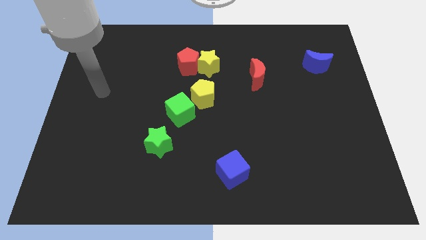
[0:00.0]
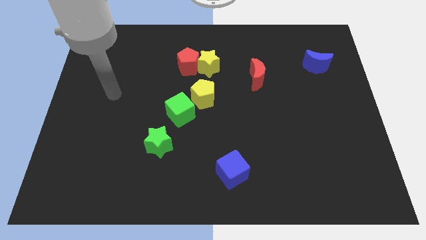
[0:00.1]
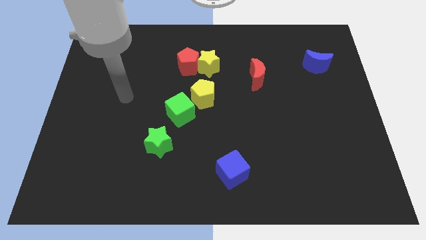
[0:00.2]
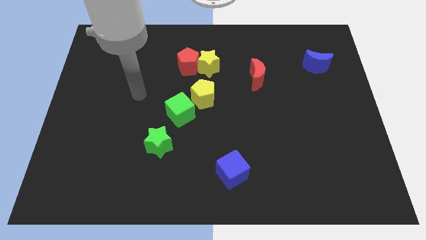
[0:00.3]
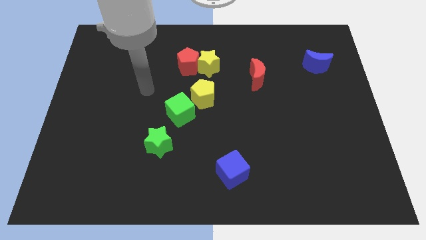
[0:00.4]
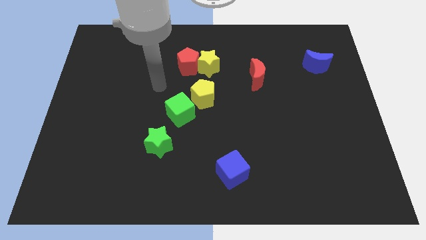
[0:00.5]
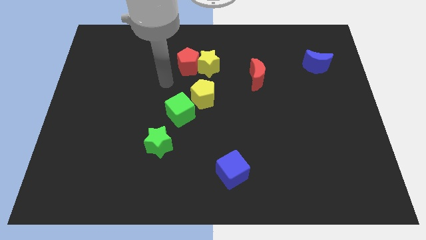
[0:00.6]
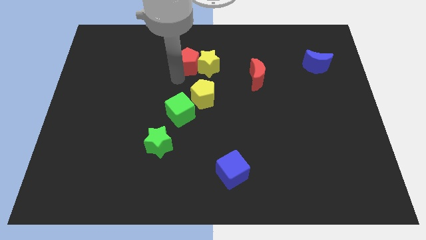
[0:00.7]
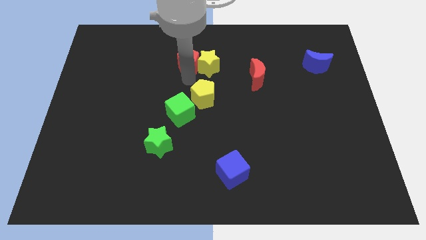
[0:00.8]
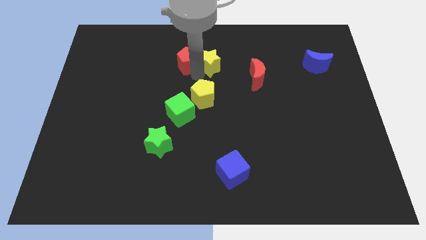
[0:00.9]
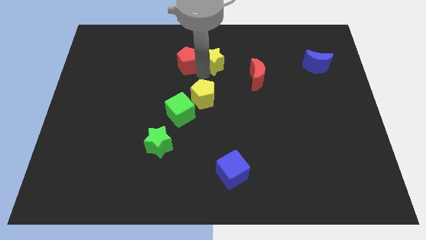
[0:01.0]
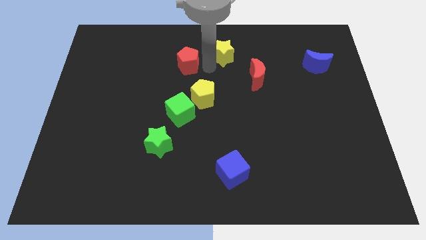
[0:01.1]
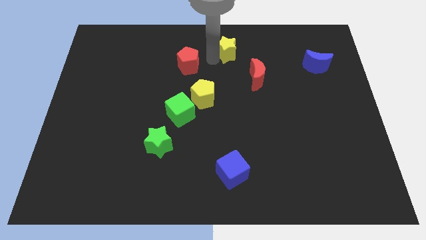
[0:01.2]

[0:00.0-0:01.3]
move the red pentagon away from the yellow star

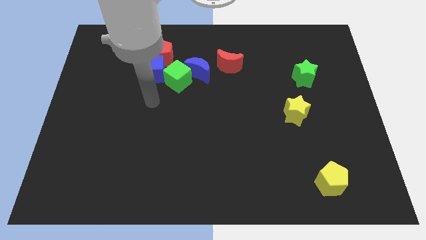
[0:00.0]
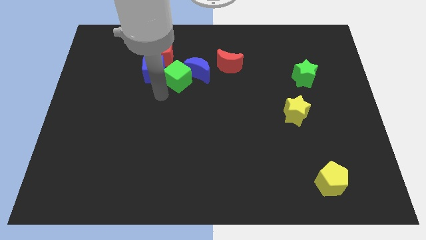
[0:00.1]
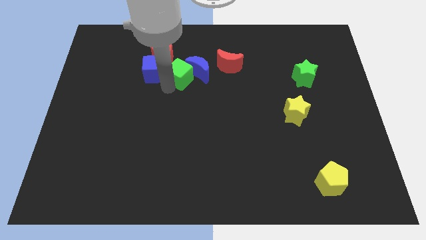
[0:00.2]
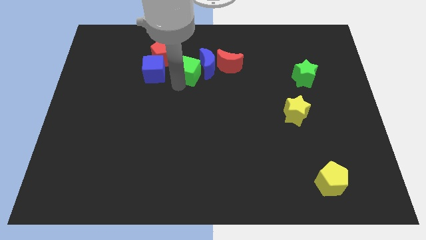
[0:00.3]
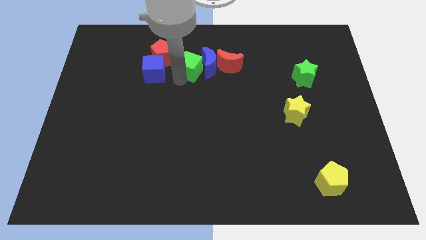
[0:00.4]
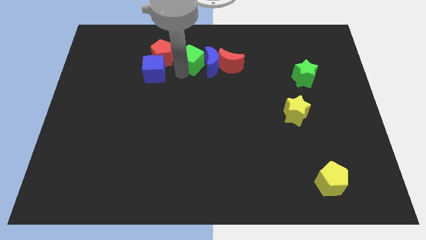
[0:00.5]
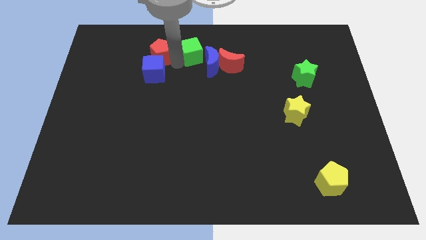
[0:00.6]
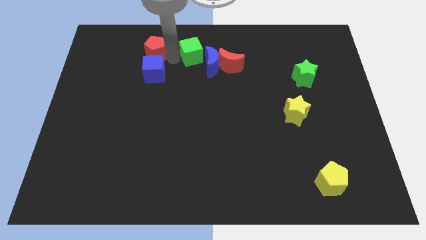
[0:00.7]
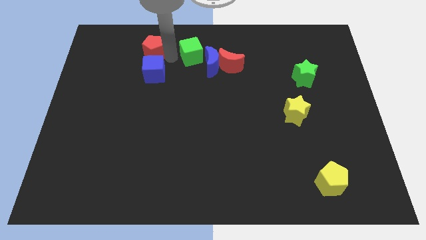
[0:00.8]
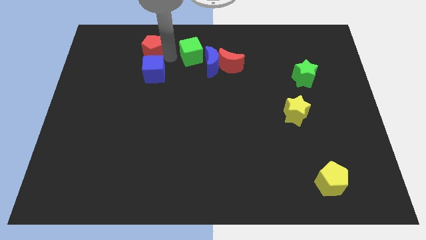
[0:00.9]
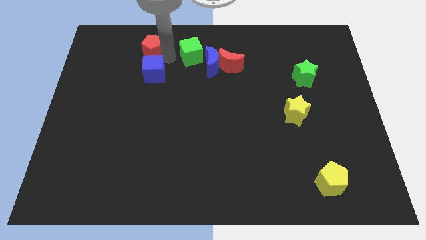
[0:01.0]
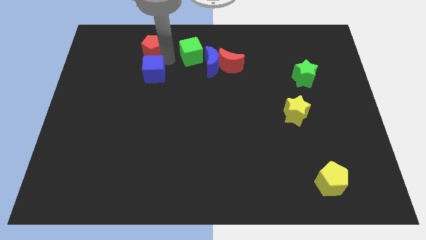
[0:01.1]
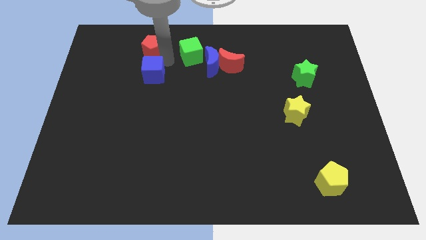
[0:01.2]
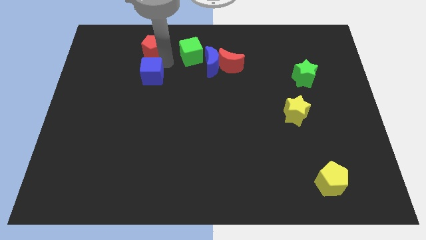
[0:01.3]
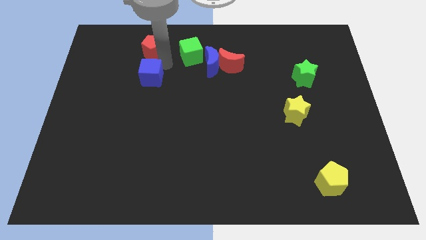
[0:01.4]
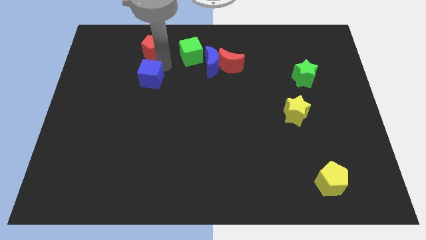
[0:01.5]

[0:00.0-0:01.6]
move the blue cube away from the red pentagon and green cube

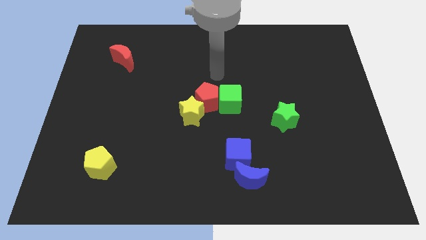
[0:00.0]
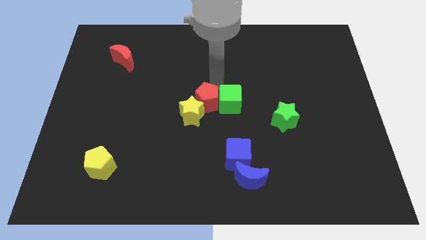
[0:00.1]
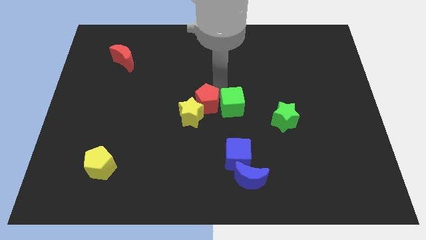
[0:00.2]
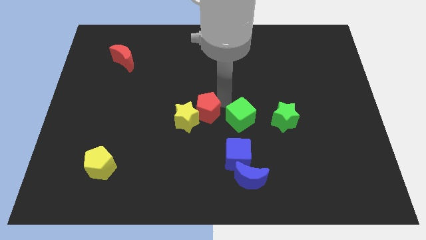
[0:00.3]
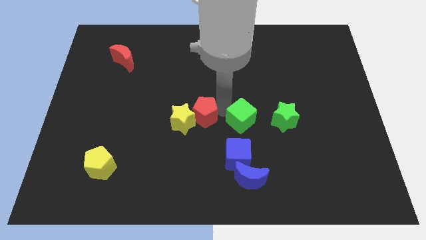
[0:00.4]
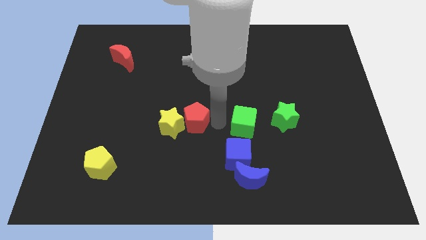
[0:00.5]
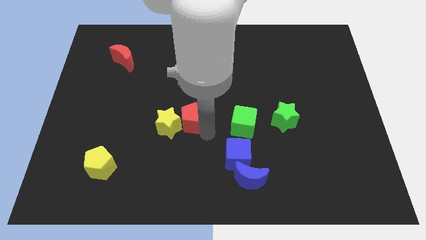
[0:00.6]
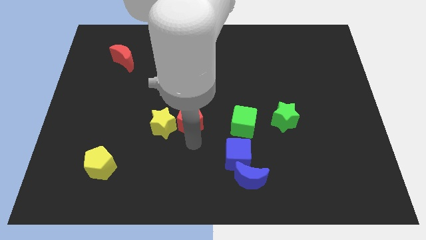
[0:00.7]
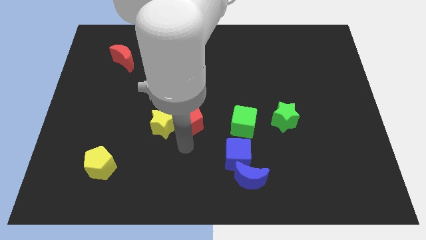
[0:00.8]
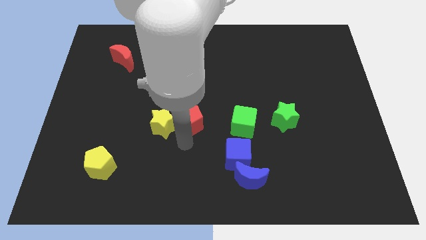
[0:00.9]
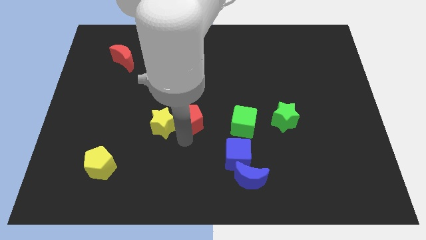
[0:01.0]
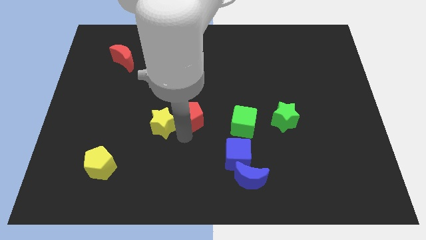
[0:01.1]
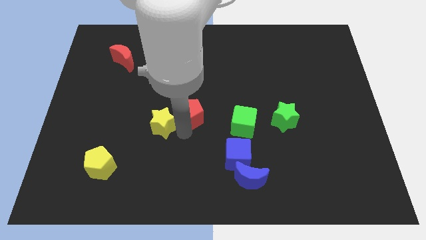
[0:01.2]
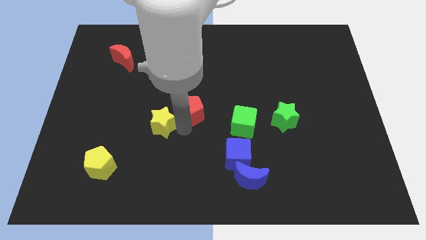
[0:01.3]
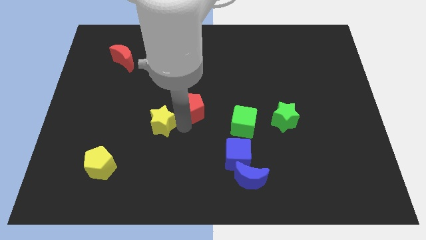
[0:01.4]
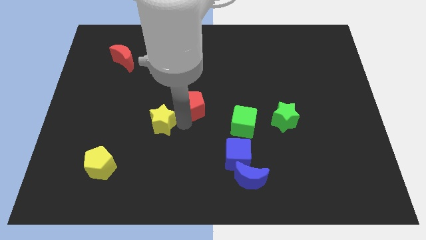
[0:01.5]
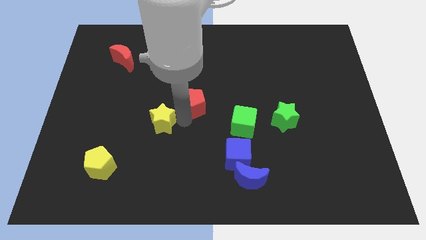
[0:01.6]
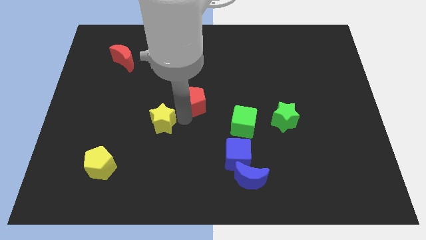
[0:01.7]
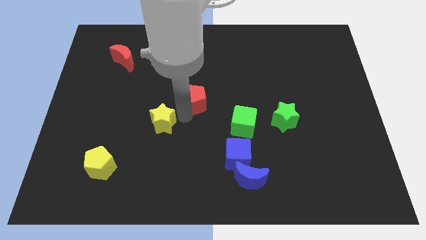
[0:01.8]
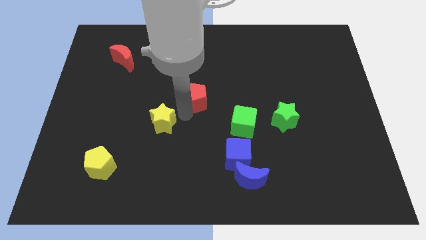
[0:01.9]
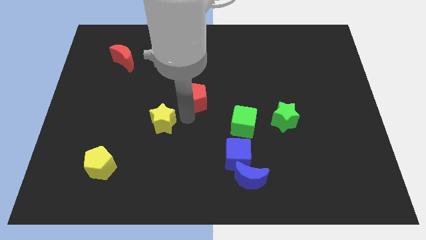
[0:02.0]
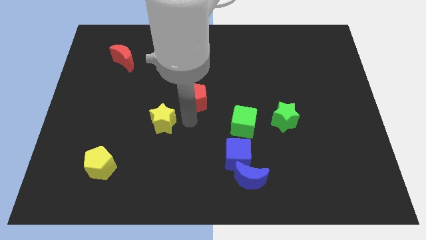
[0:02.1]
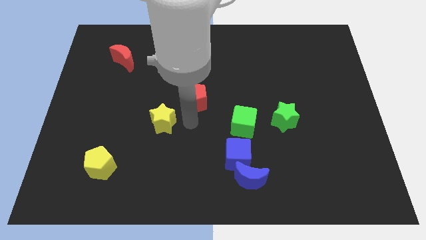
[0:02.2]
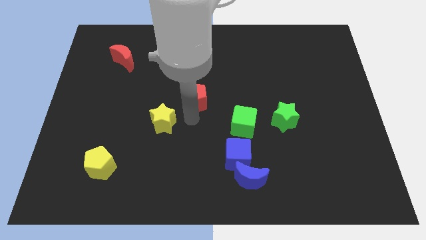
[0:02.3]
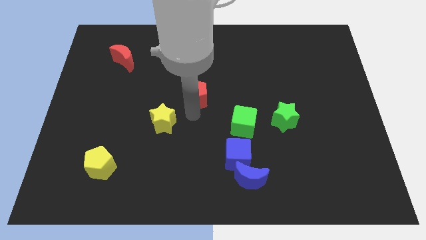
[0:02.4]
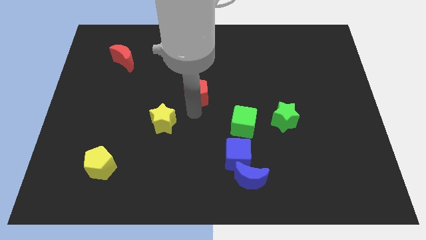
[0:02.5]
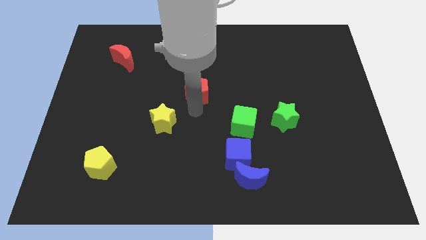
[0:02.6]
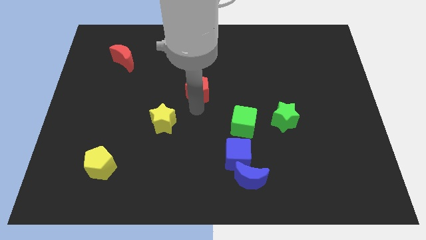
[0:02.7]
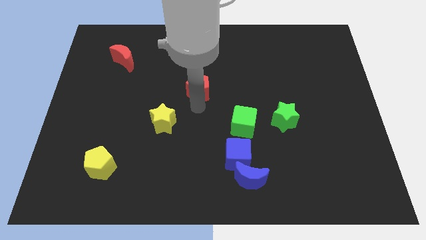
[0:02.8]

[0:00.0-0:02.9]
pull the red pentagon apart from the green cube and yellow star

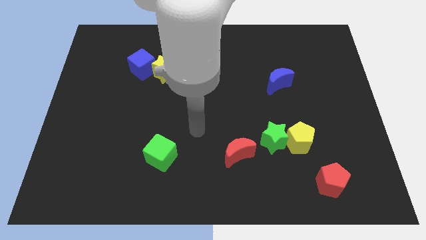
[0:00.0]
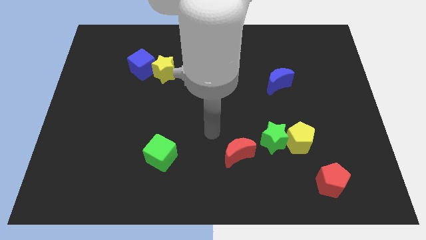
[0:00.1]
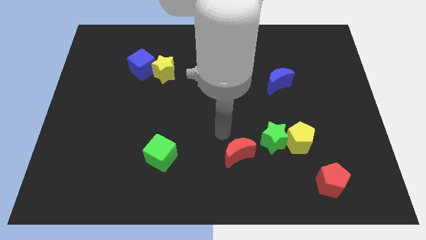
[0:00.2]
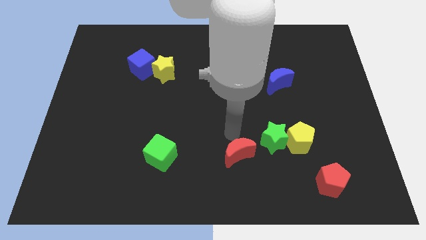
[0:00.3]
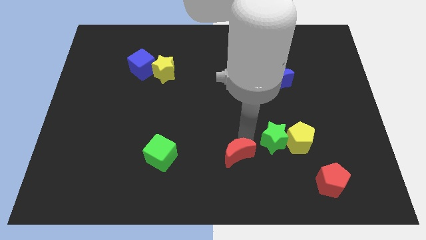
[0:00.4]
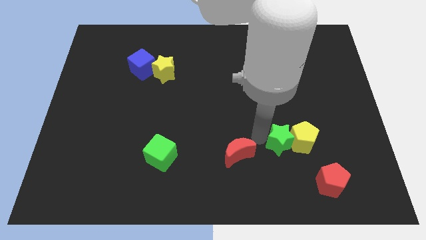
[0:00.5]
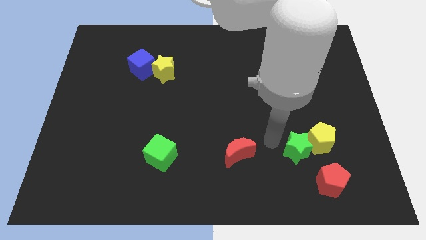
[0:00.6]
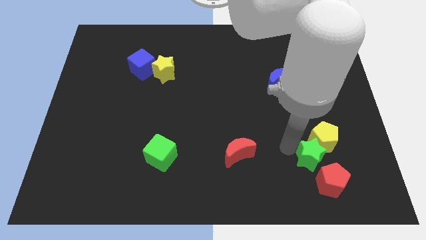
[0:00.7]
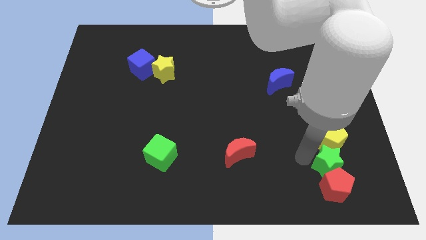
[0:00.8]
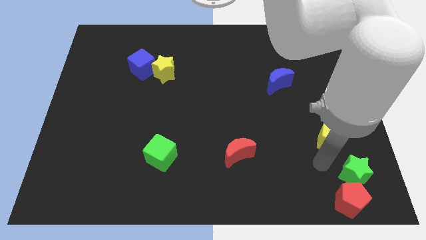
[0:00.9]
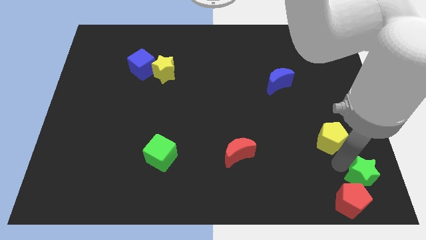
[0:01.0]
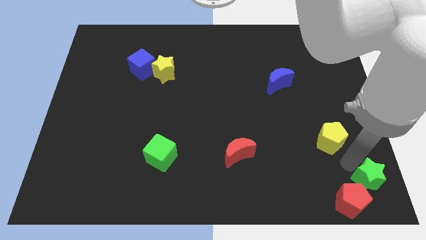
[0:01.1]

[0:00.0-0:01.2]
move the yellow pentagon away from the green star

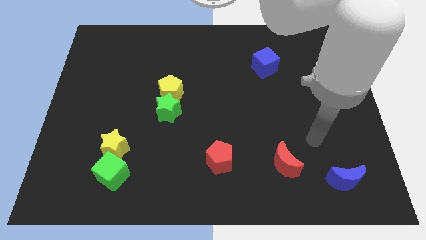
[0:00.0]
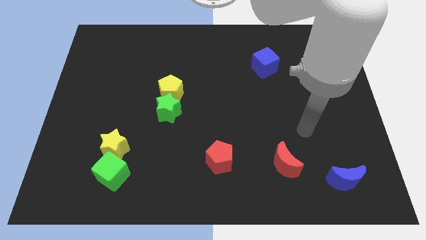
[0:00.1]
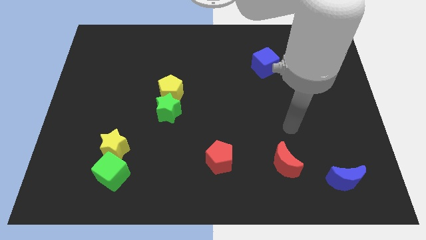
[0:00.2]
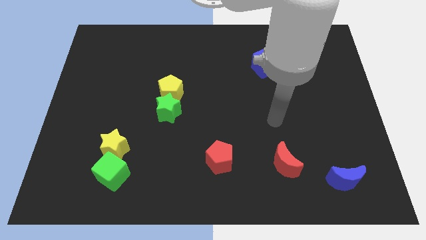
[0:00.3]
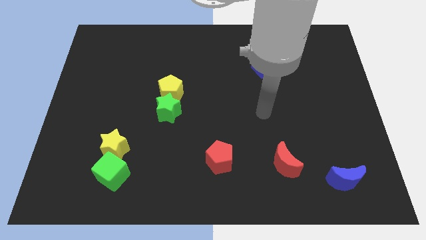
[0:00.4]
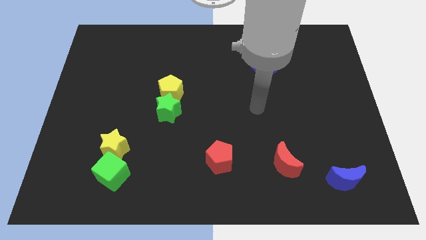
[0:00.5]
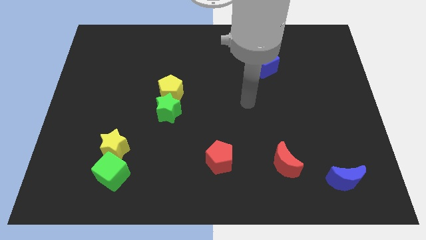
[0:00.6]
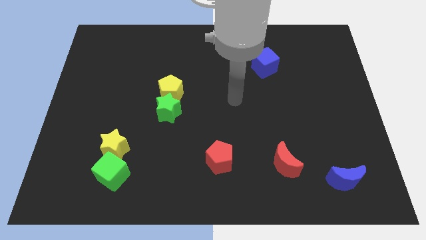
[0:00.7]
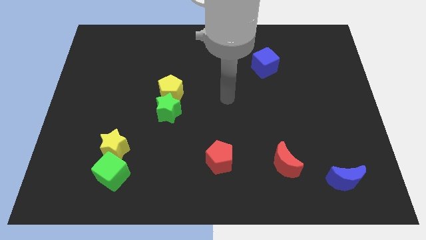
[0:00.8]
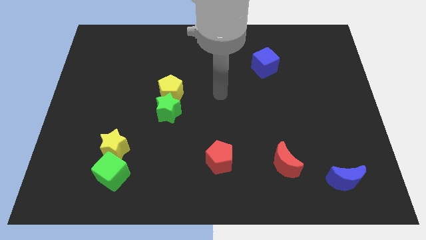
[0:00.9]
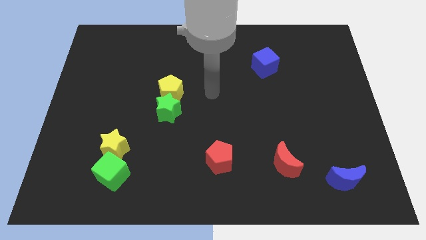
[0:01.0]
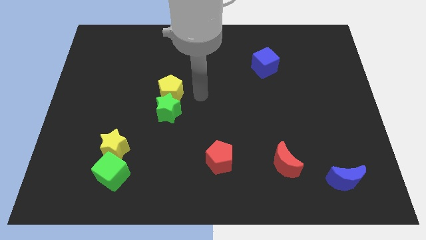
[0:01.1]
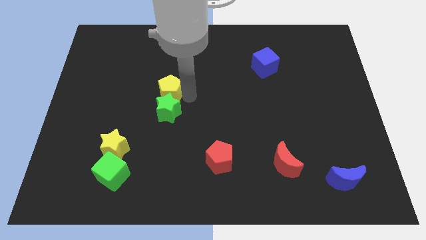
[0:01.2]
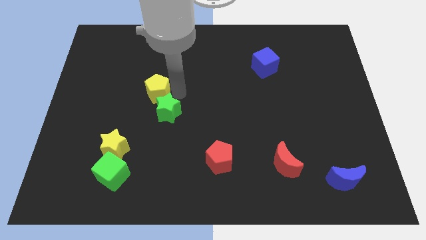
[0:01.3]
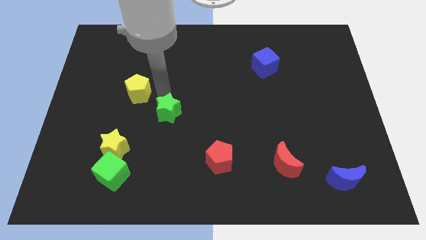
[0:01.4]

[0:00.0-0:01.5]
separate the green star from the yellow pentagon

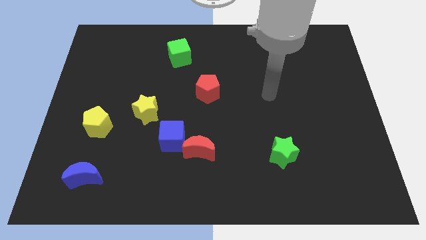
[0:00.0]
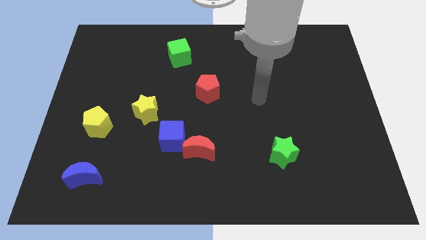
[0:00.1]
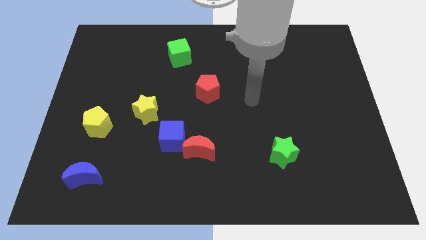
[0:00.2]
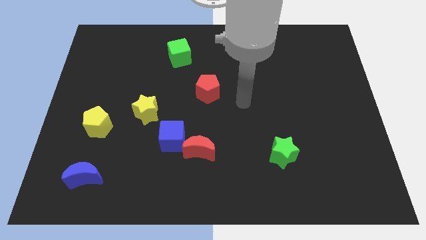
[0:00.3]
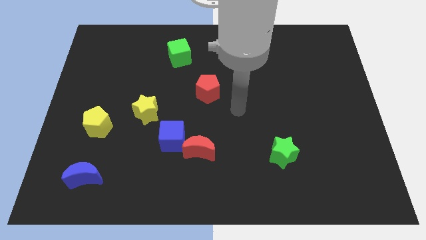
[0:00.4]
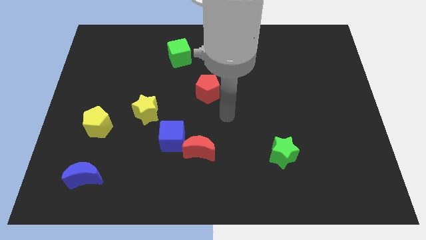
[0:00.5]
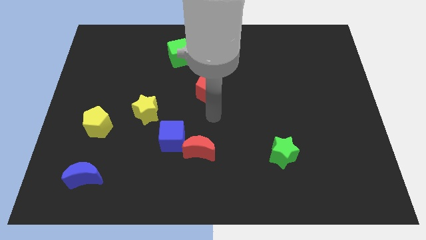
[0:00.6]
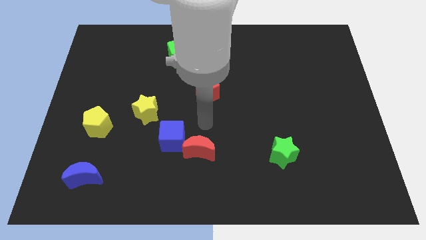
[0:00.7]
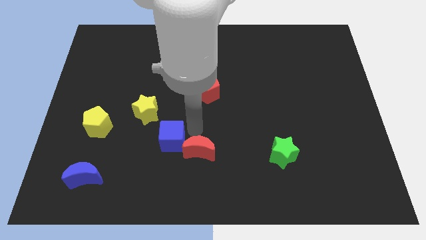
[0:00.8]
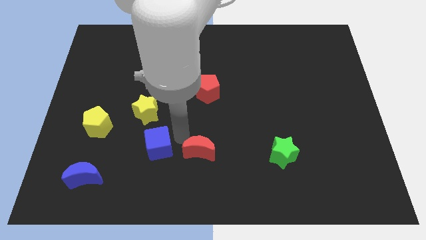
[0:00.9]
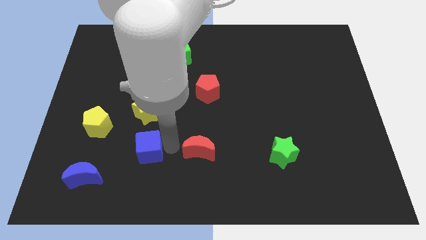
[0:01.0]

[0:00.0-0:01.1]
move the red moon away from the blue cube
